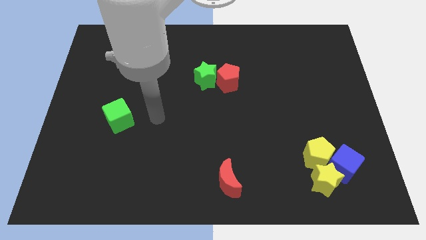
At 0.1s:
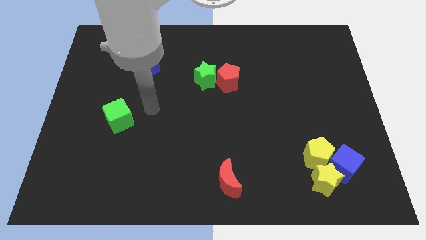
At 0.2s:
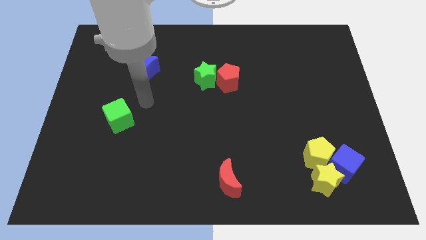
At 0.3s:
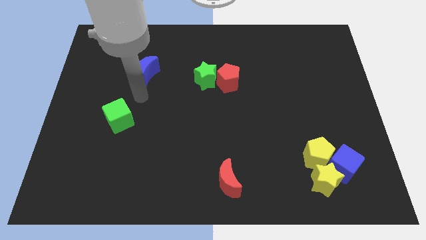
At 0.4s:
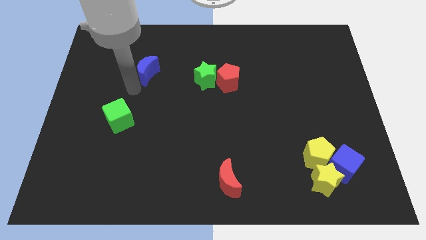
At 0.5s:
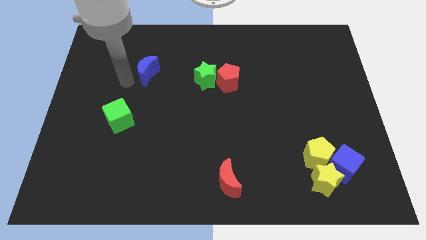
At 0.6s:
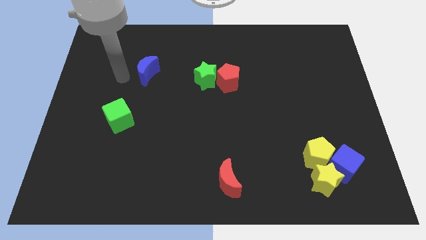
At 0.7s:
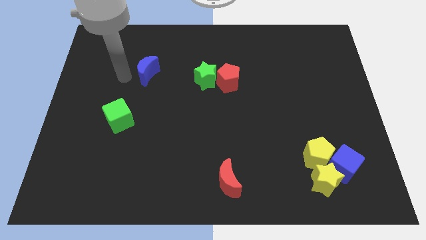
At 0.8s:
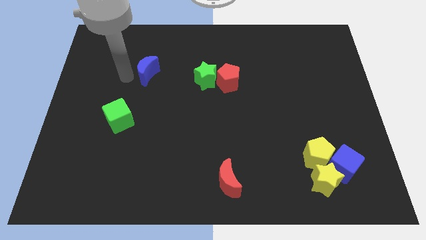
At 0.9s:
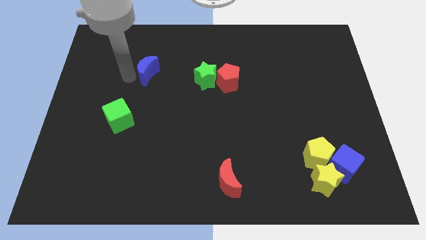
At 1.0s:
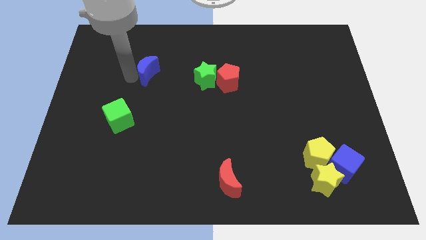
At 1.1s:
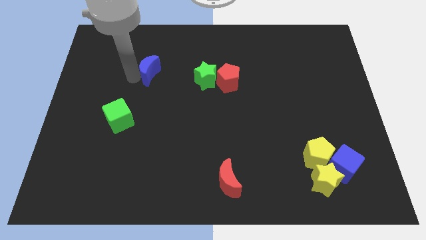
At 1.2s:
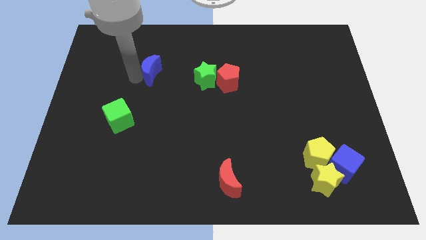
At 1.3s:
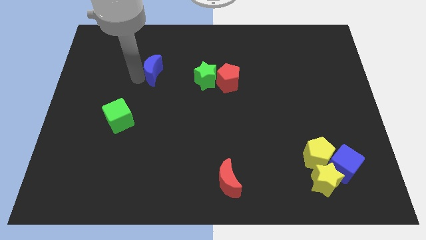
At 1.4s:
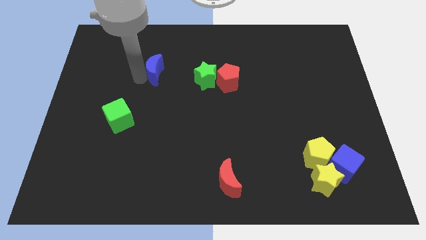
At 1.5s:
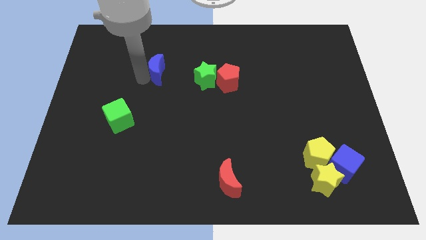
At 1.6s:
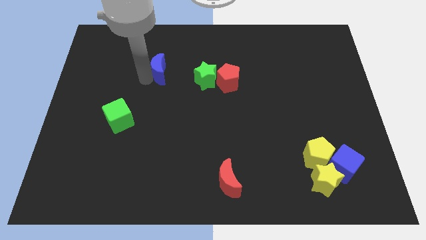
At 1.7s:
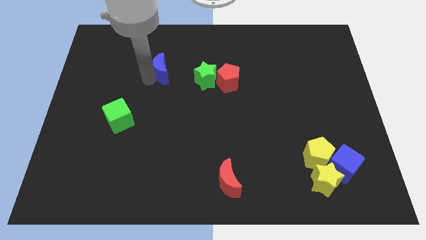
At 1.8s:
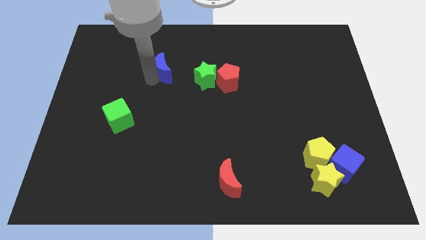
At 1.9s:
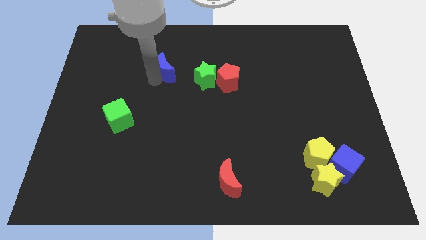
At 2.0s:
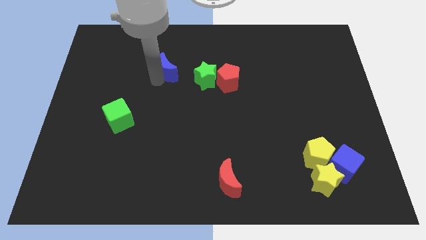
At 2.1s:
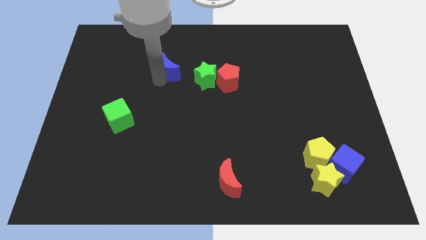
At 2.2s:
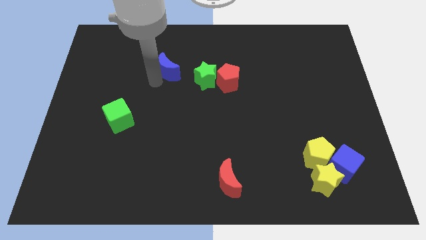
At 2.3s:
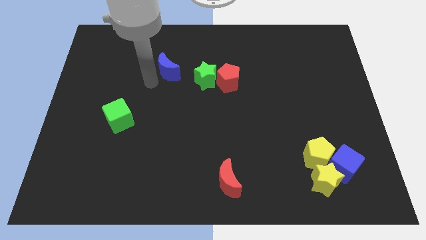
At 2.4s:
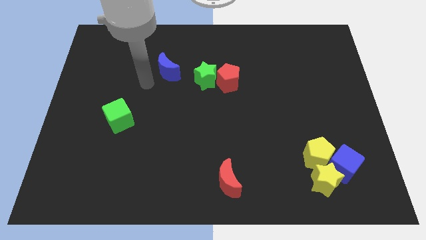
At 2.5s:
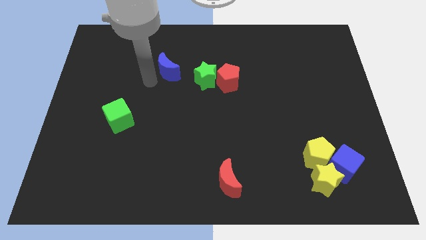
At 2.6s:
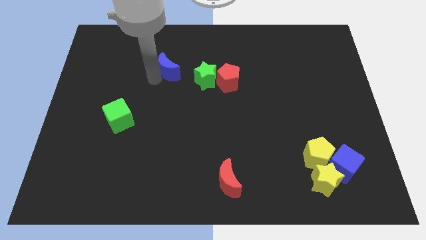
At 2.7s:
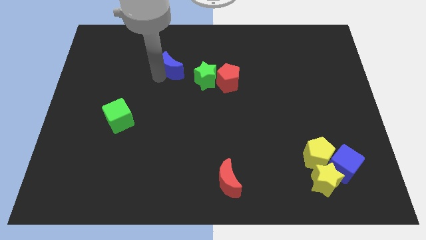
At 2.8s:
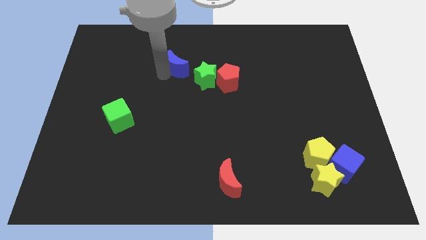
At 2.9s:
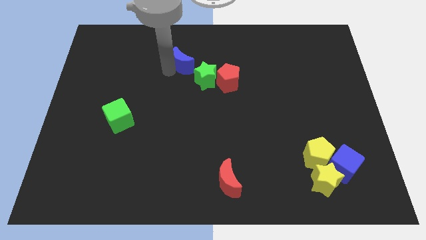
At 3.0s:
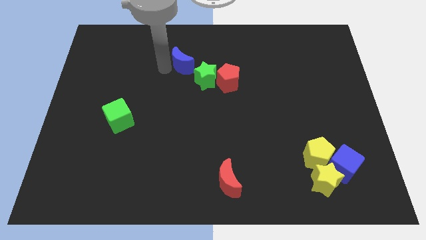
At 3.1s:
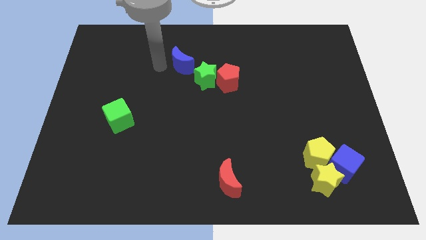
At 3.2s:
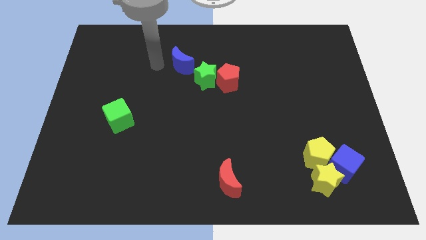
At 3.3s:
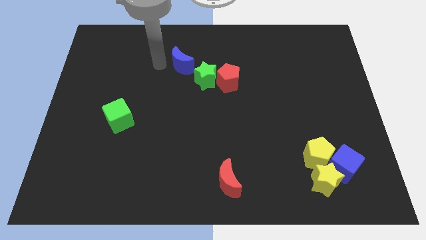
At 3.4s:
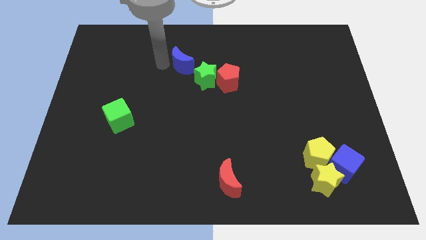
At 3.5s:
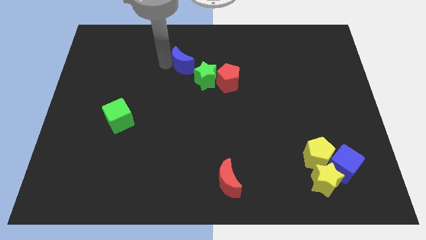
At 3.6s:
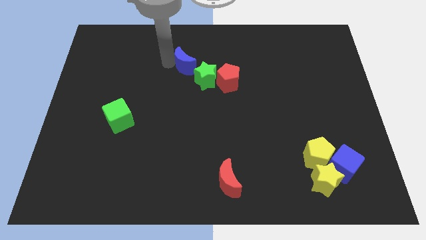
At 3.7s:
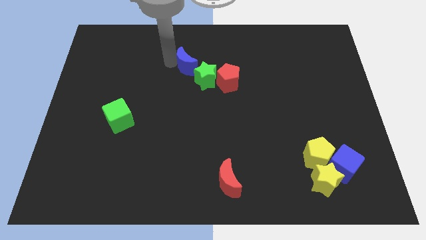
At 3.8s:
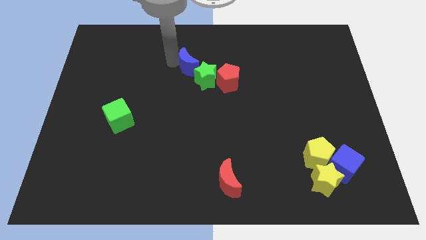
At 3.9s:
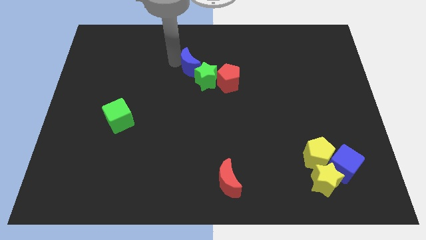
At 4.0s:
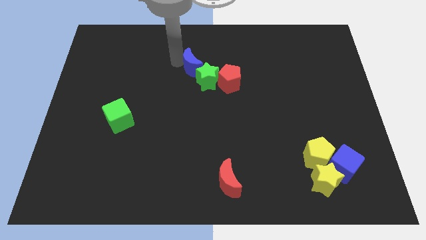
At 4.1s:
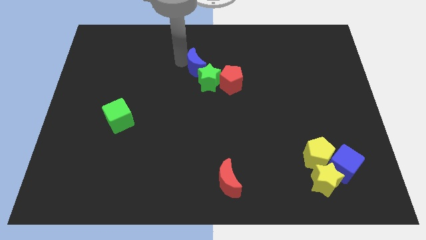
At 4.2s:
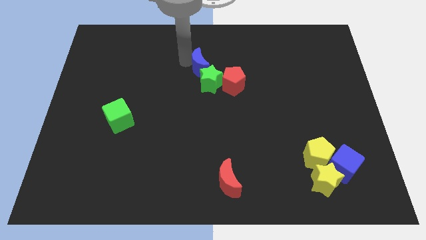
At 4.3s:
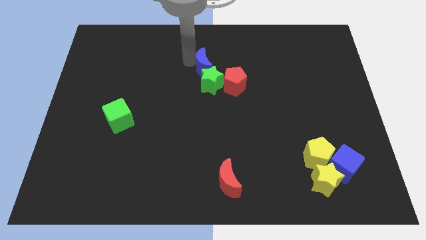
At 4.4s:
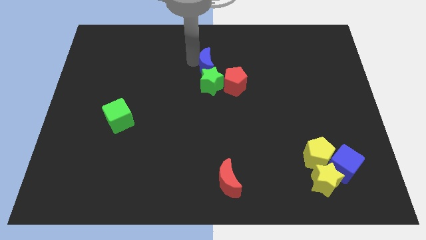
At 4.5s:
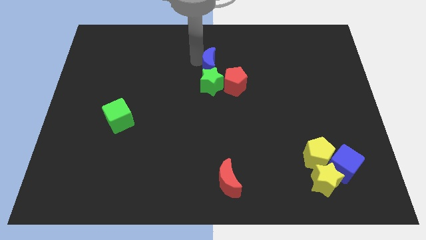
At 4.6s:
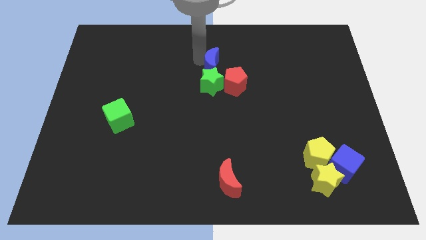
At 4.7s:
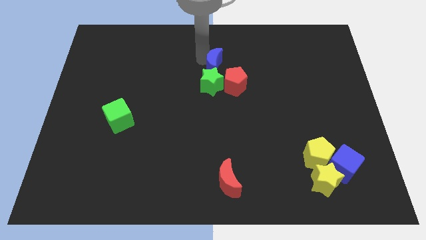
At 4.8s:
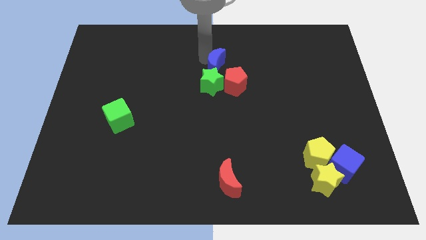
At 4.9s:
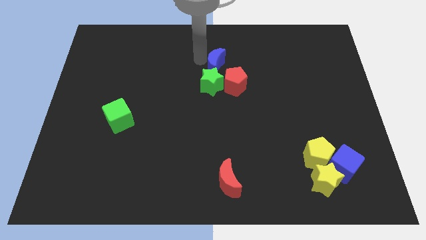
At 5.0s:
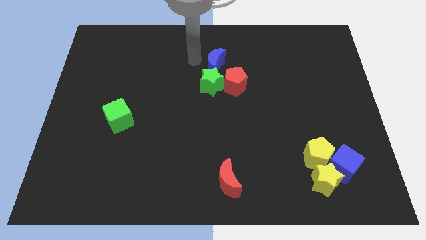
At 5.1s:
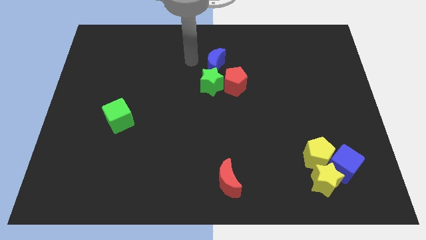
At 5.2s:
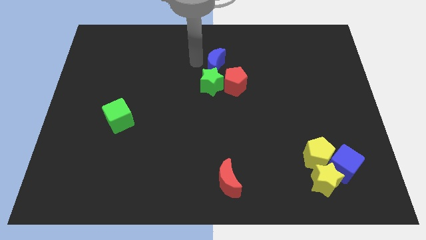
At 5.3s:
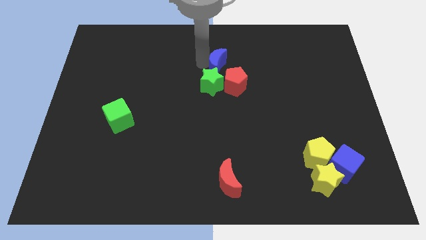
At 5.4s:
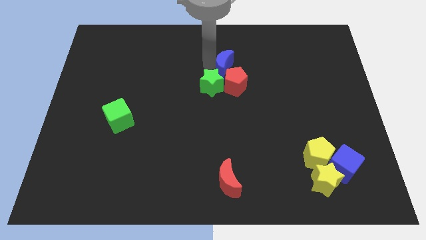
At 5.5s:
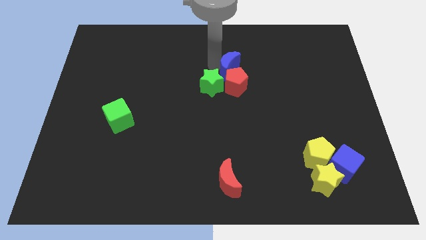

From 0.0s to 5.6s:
slide the blue moon to the right

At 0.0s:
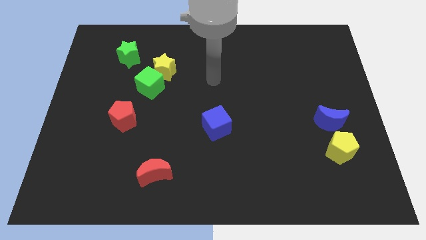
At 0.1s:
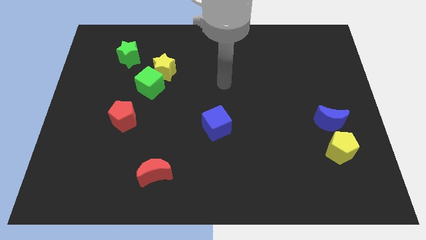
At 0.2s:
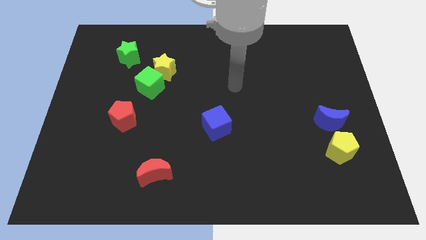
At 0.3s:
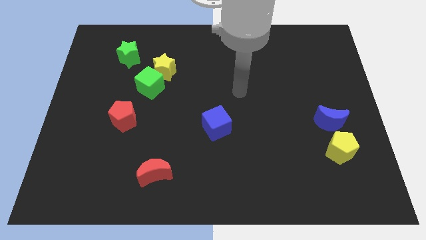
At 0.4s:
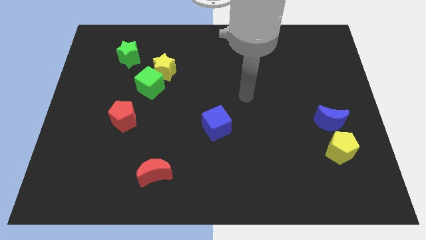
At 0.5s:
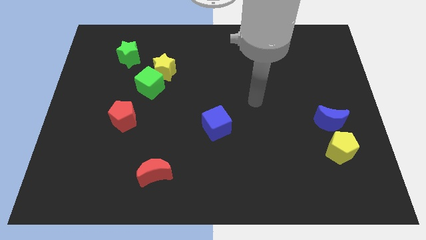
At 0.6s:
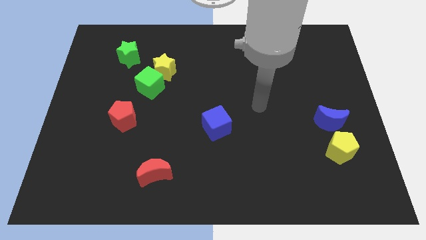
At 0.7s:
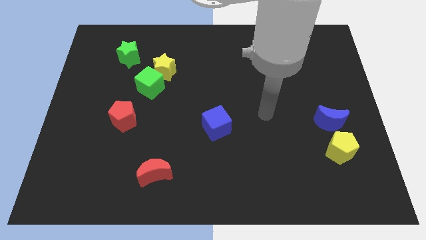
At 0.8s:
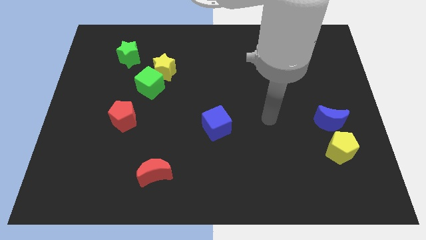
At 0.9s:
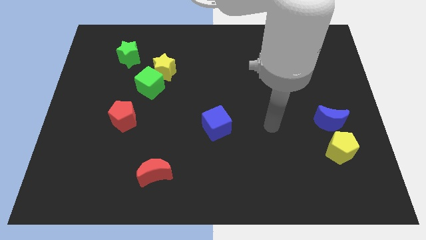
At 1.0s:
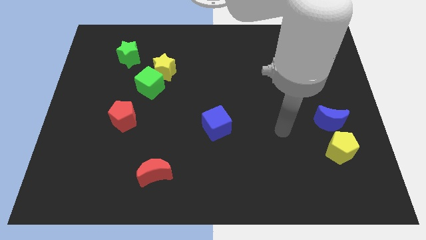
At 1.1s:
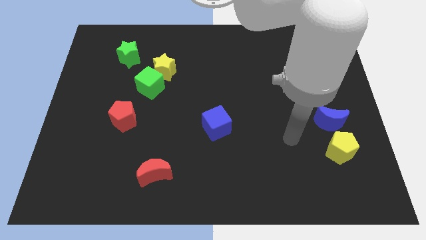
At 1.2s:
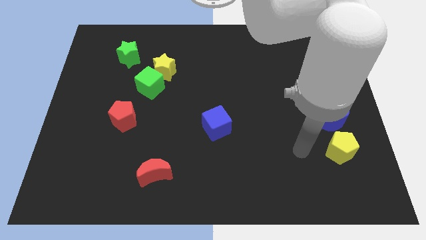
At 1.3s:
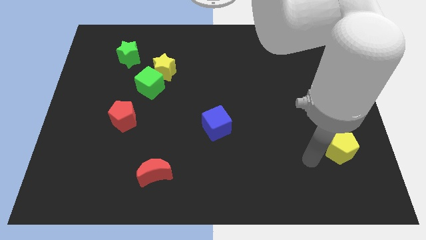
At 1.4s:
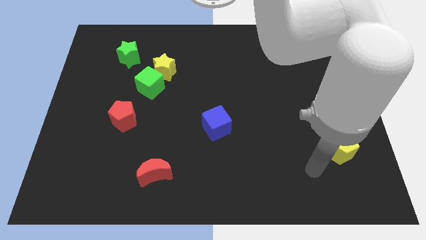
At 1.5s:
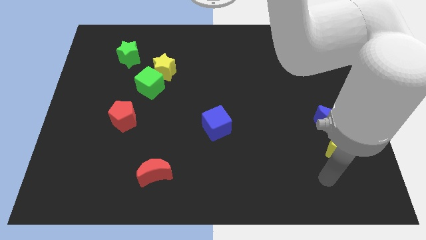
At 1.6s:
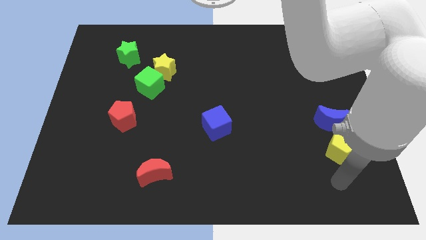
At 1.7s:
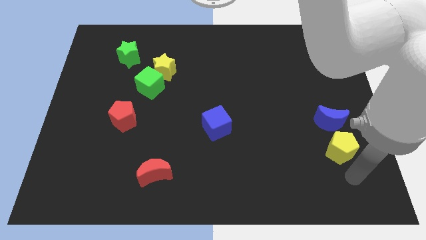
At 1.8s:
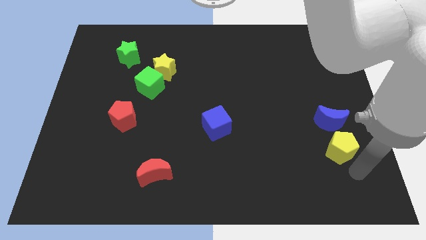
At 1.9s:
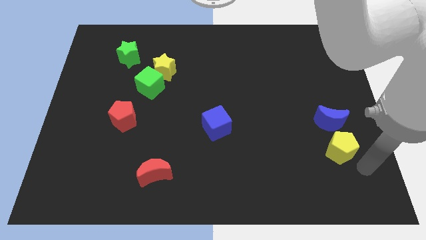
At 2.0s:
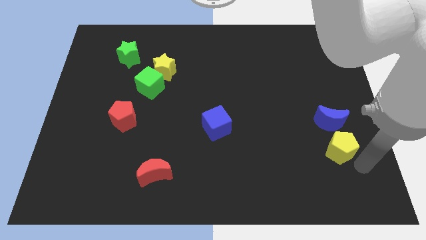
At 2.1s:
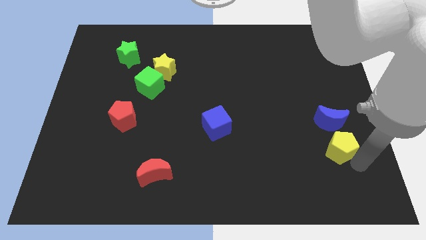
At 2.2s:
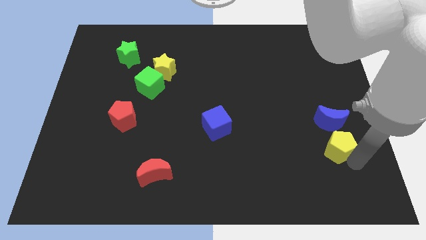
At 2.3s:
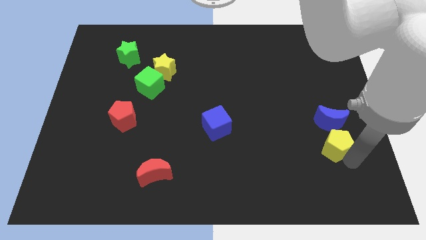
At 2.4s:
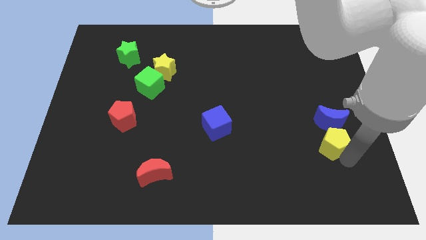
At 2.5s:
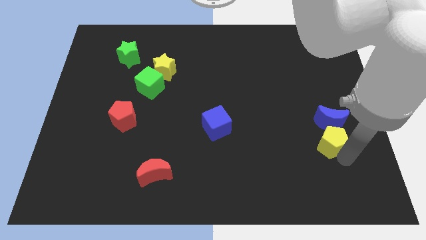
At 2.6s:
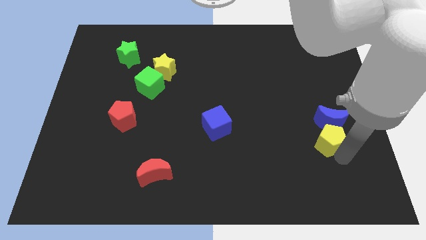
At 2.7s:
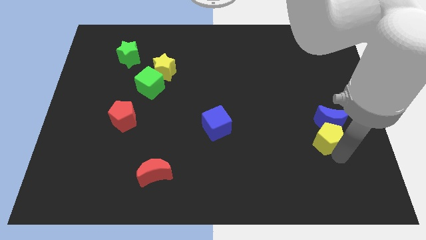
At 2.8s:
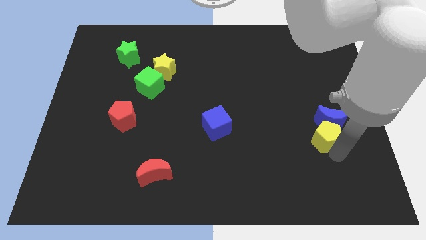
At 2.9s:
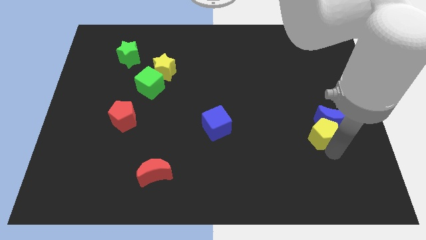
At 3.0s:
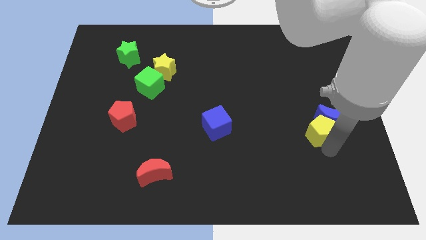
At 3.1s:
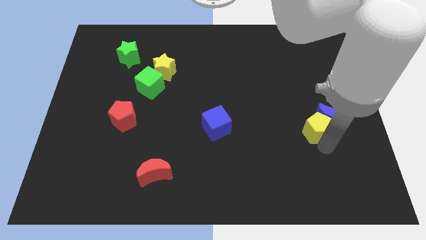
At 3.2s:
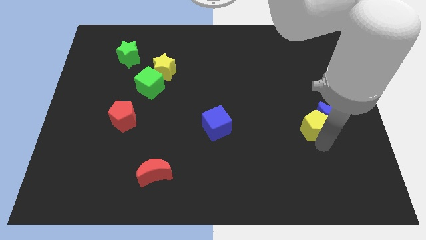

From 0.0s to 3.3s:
move the yellow pentagon upwards and left a bit
